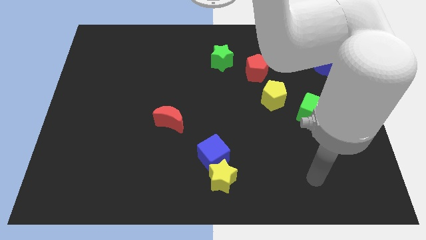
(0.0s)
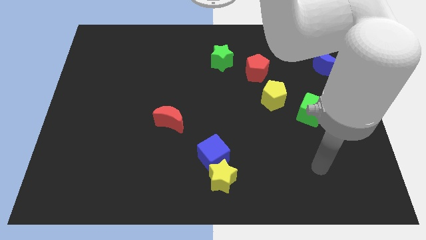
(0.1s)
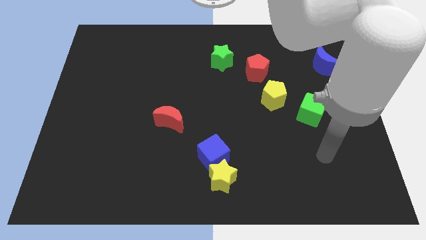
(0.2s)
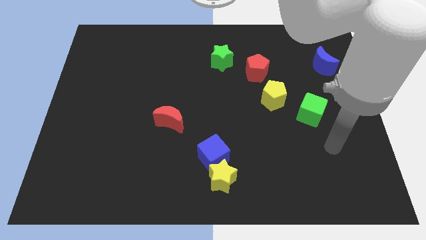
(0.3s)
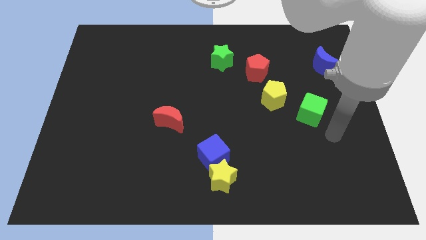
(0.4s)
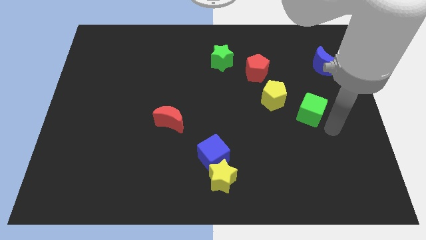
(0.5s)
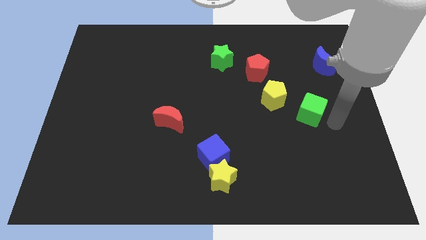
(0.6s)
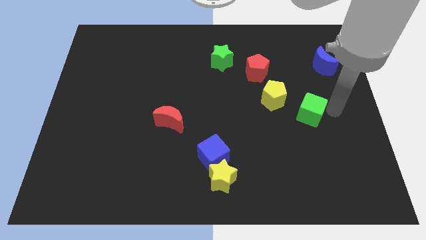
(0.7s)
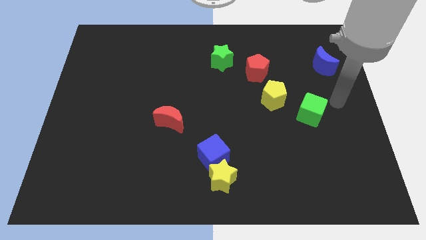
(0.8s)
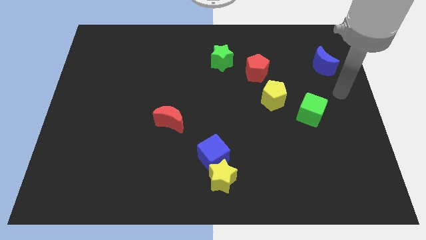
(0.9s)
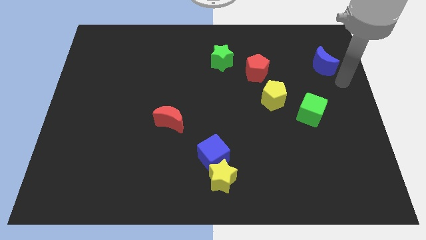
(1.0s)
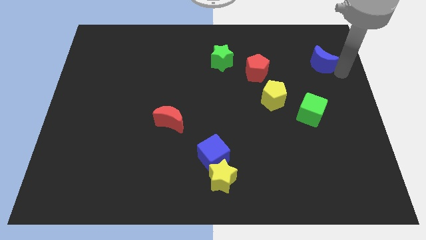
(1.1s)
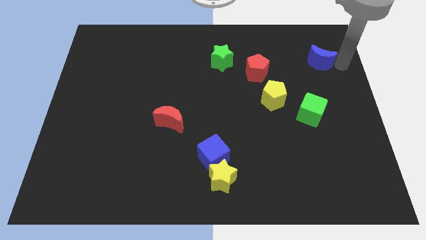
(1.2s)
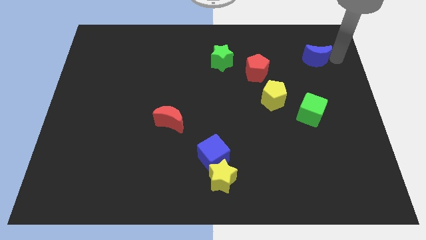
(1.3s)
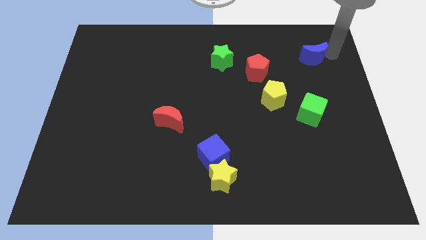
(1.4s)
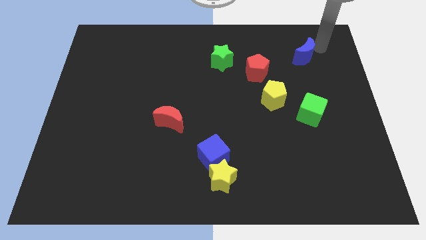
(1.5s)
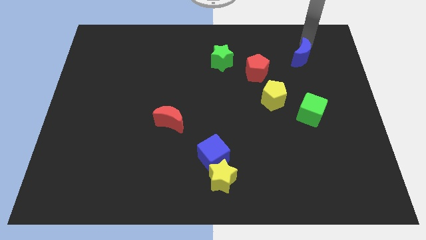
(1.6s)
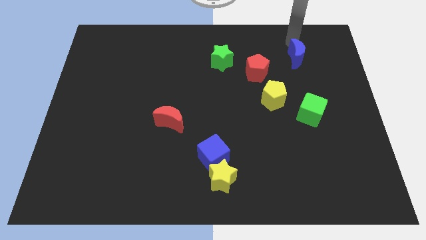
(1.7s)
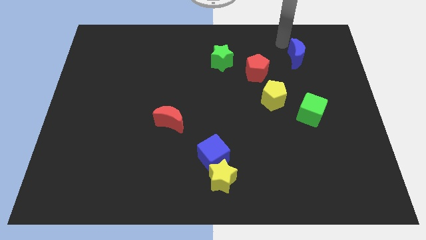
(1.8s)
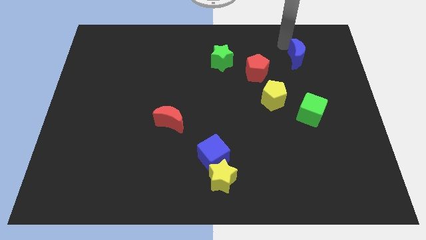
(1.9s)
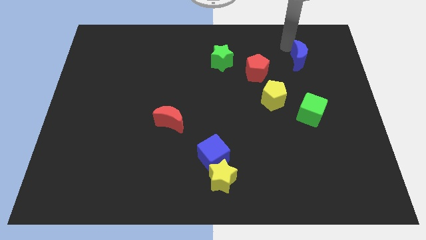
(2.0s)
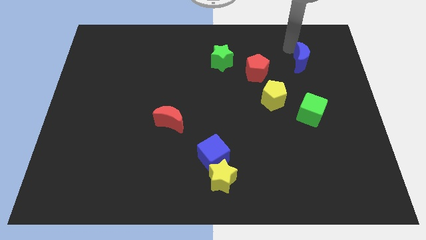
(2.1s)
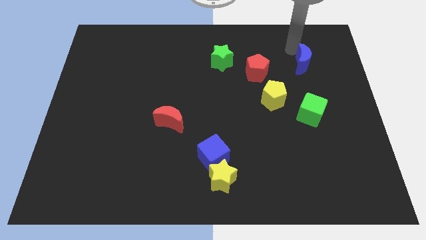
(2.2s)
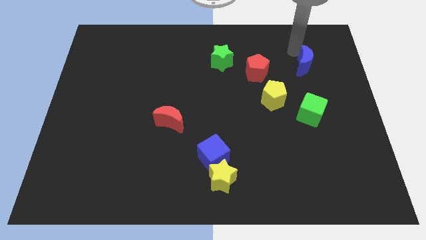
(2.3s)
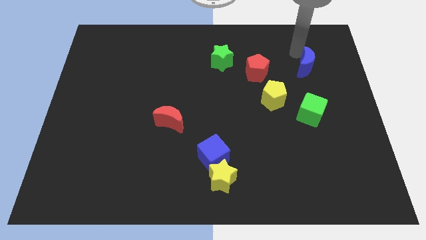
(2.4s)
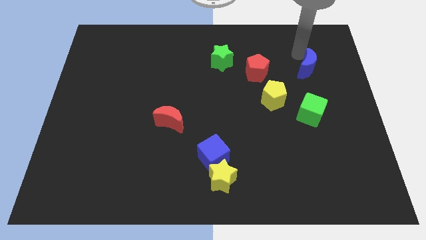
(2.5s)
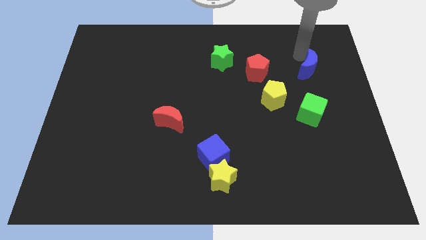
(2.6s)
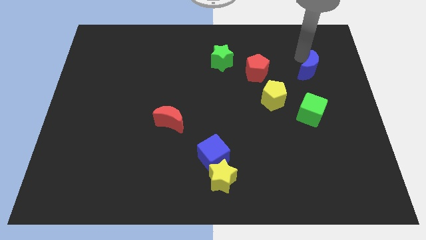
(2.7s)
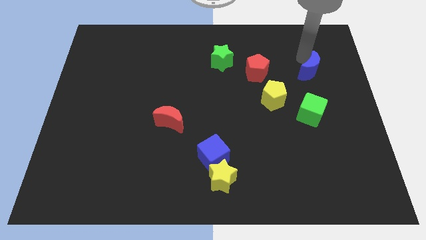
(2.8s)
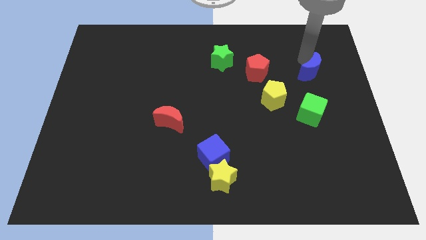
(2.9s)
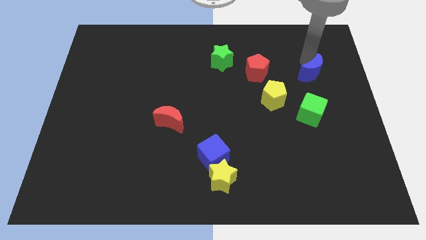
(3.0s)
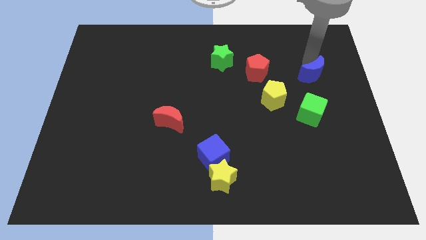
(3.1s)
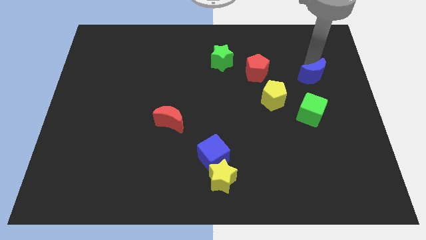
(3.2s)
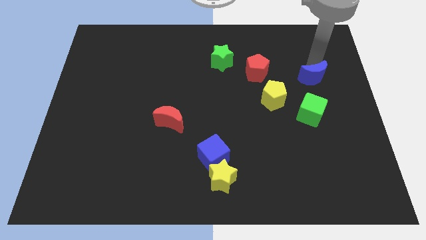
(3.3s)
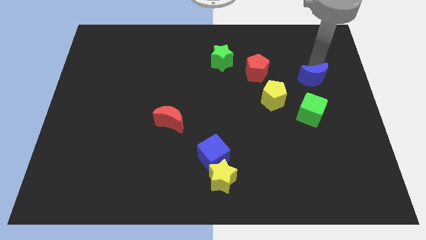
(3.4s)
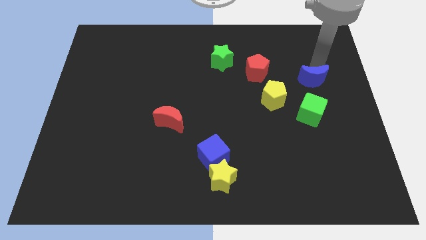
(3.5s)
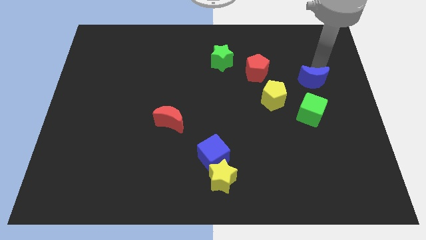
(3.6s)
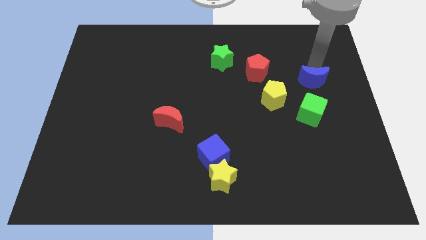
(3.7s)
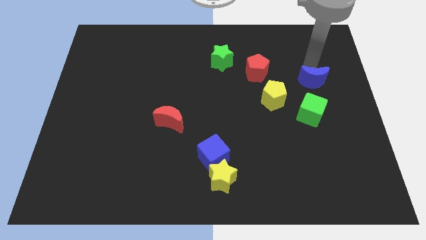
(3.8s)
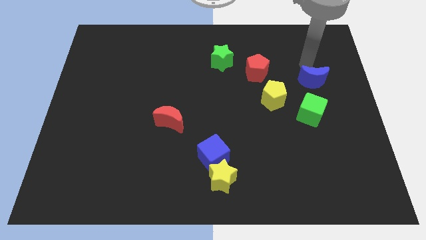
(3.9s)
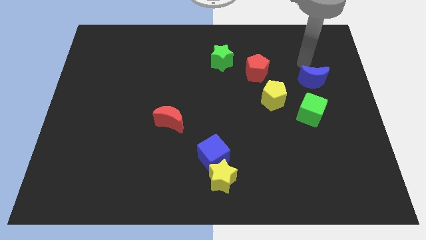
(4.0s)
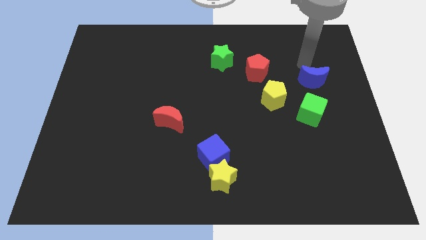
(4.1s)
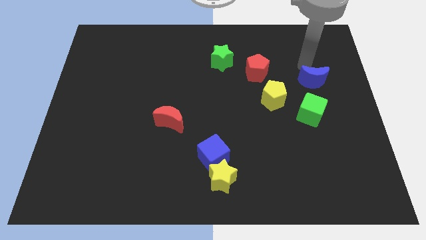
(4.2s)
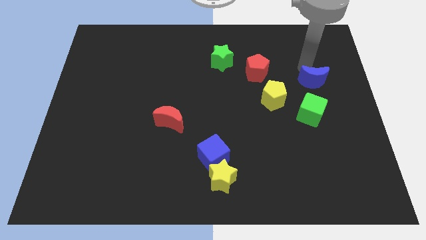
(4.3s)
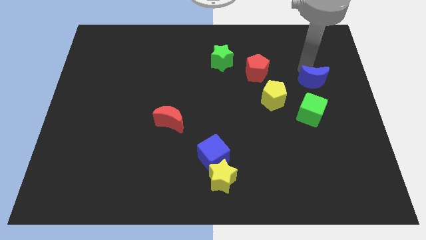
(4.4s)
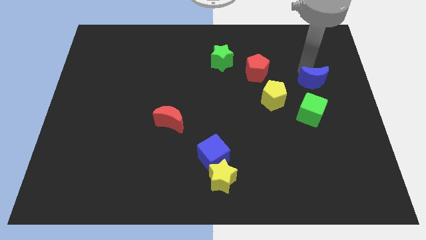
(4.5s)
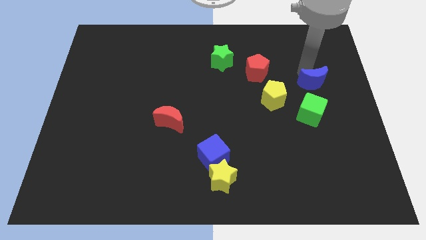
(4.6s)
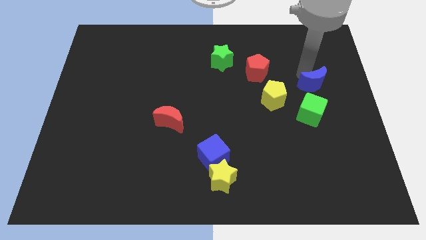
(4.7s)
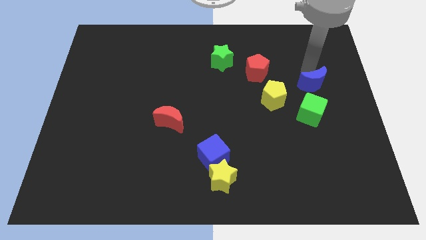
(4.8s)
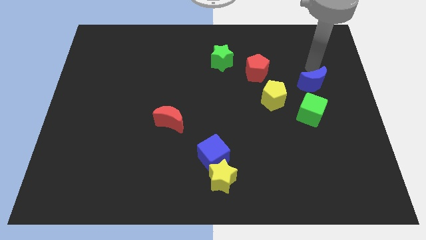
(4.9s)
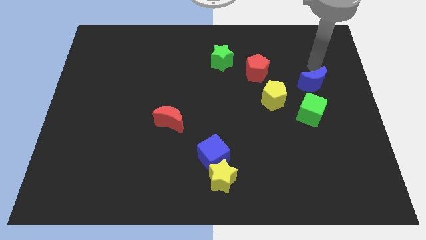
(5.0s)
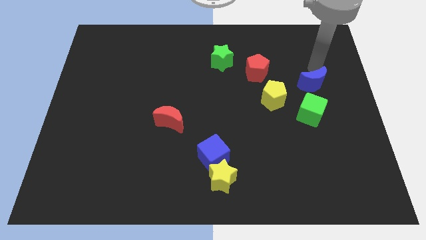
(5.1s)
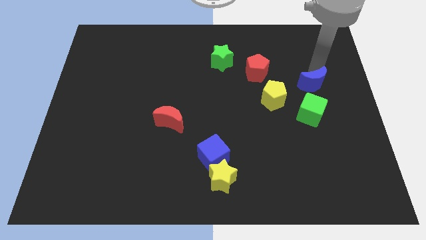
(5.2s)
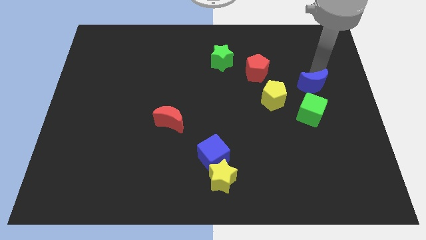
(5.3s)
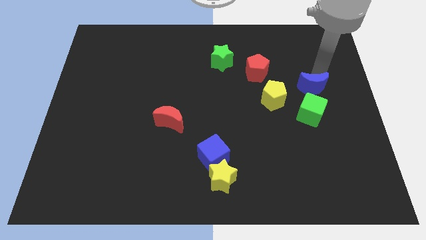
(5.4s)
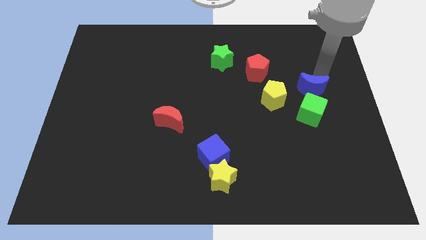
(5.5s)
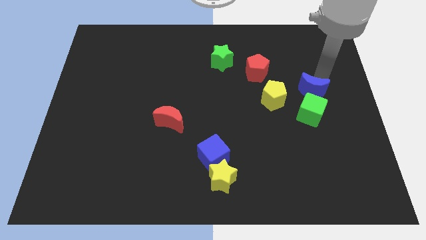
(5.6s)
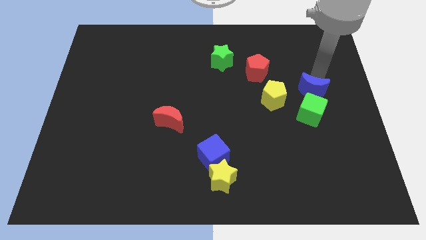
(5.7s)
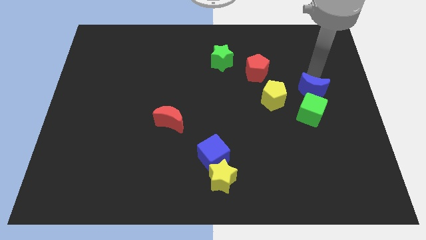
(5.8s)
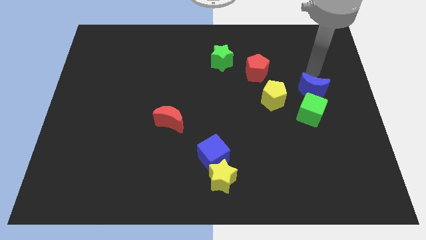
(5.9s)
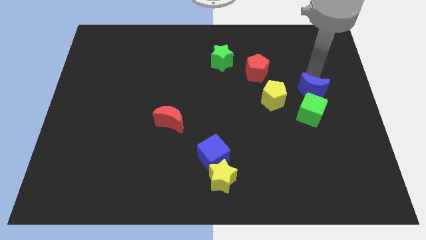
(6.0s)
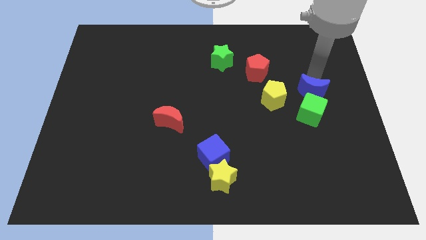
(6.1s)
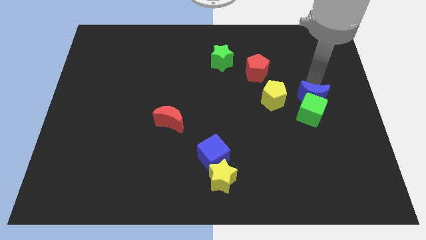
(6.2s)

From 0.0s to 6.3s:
slide the blue moon close to the green cube
